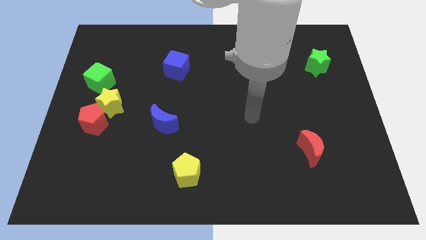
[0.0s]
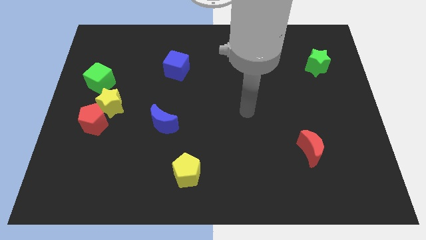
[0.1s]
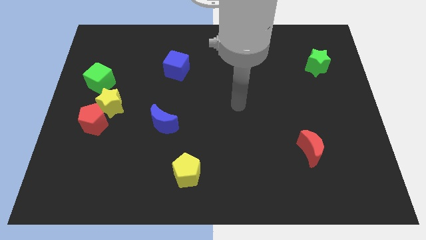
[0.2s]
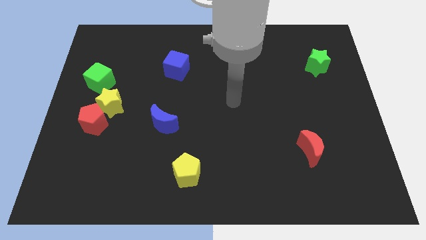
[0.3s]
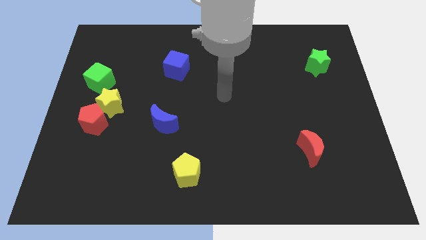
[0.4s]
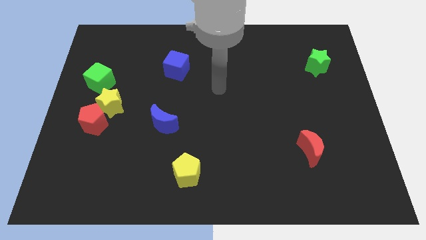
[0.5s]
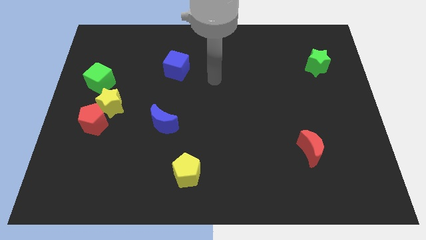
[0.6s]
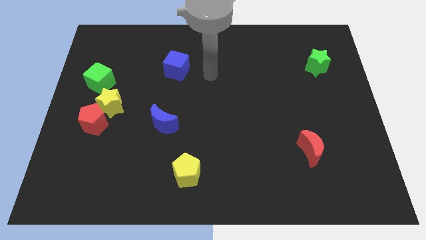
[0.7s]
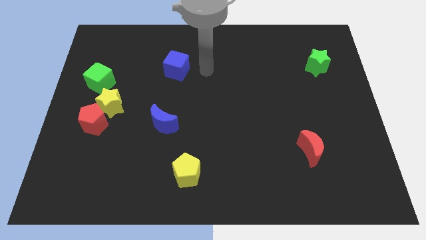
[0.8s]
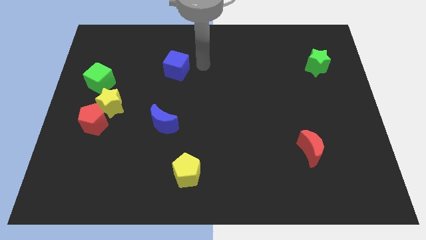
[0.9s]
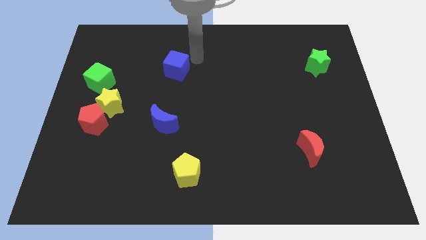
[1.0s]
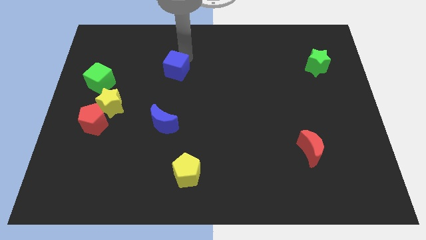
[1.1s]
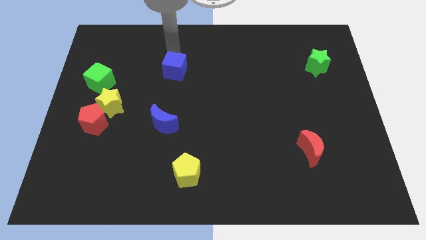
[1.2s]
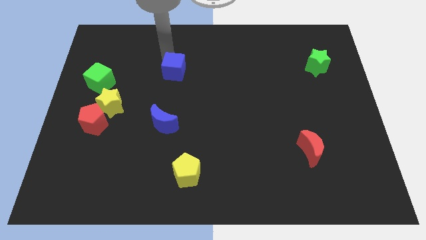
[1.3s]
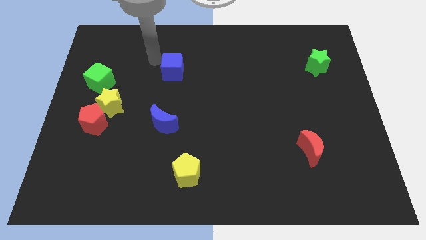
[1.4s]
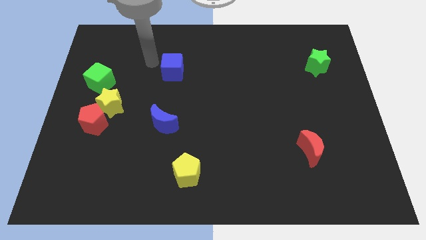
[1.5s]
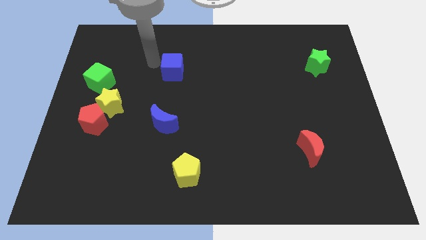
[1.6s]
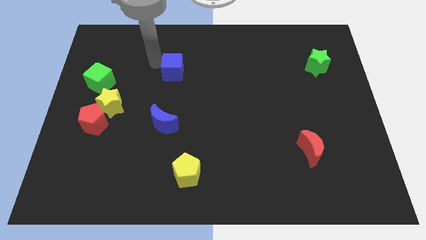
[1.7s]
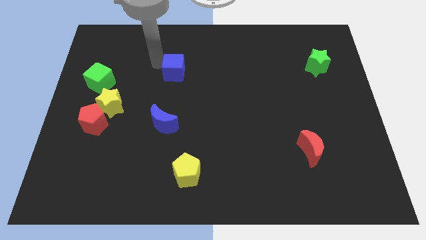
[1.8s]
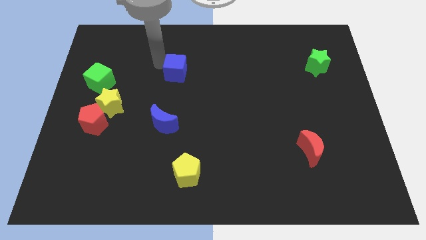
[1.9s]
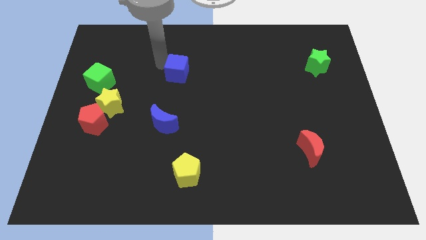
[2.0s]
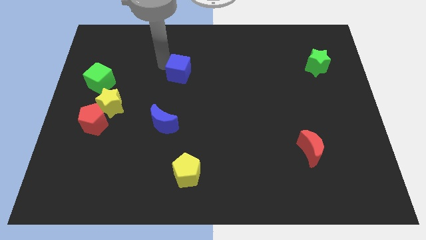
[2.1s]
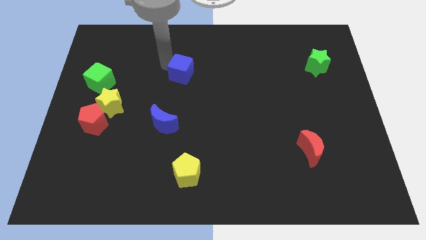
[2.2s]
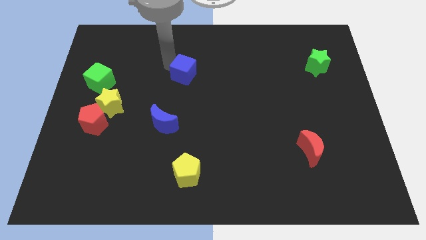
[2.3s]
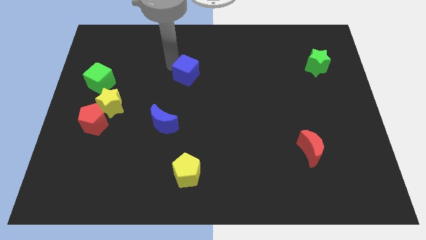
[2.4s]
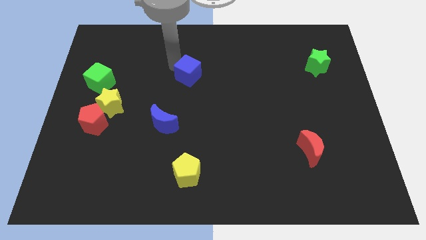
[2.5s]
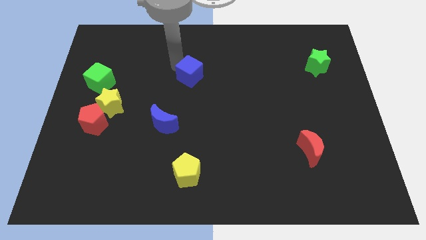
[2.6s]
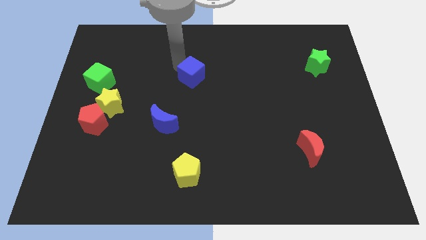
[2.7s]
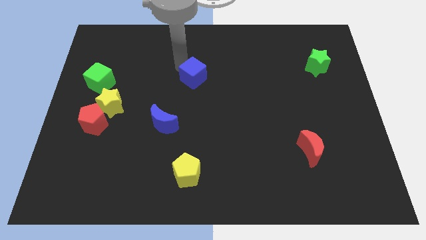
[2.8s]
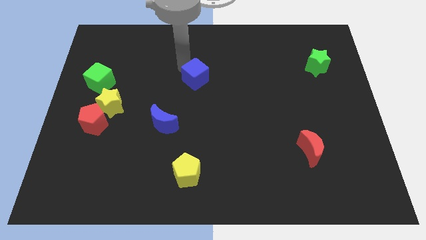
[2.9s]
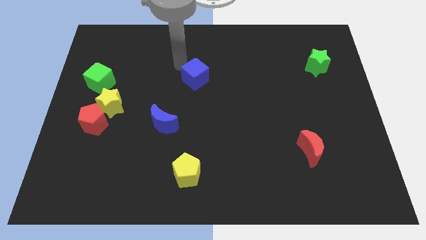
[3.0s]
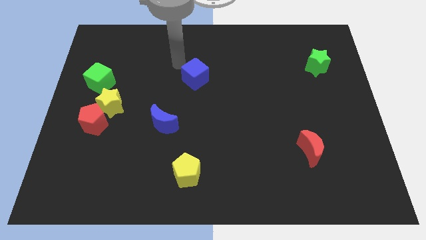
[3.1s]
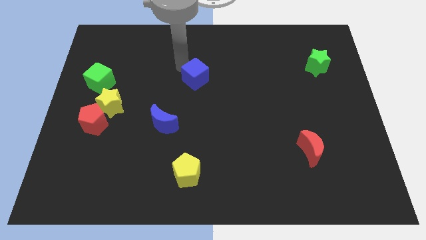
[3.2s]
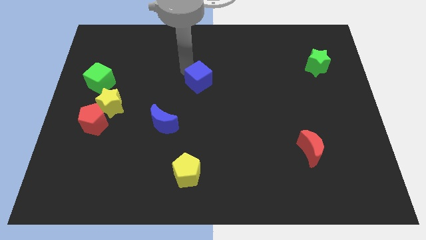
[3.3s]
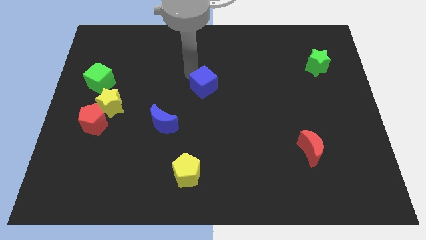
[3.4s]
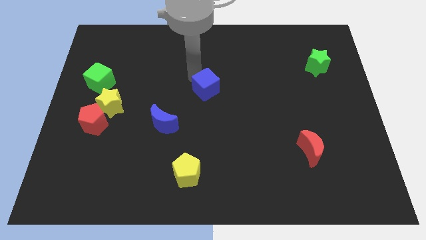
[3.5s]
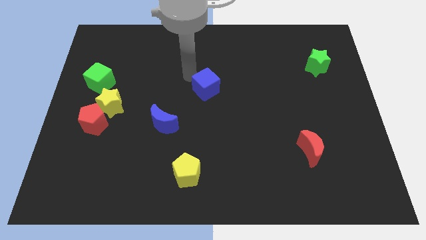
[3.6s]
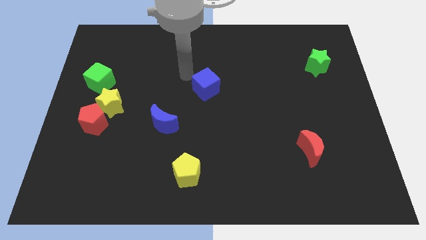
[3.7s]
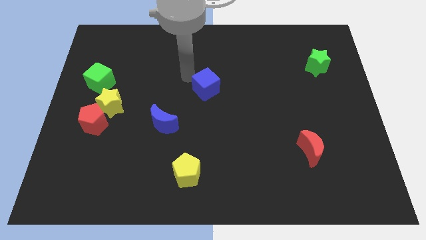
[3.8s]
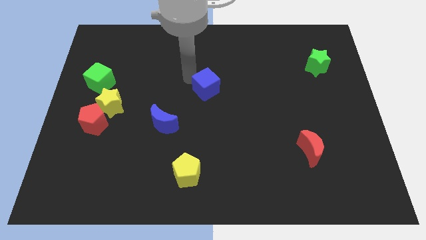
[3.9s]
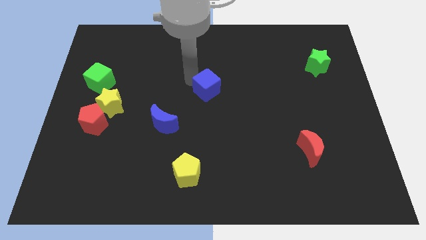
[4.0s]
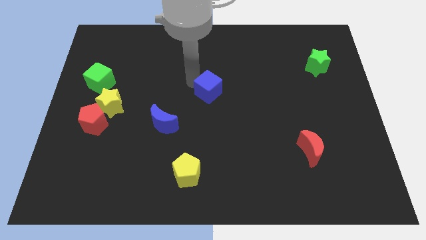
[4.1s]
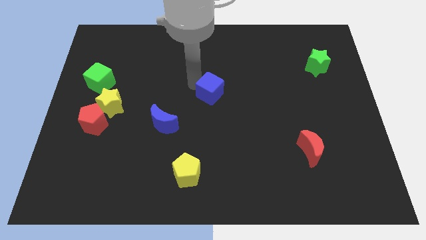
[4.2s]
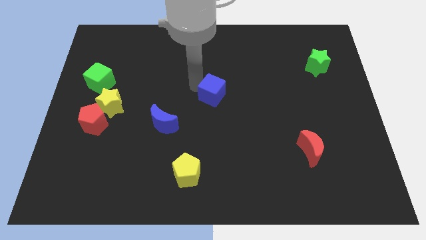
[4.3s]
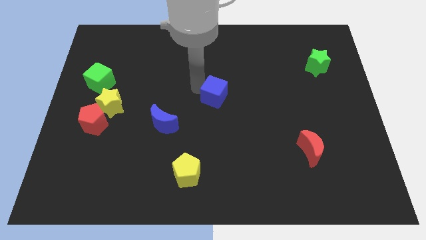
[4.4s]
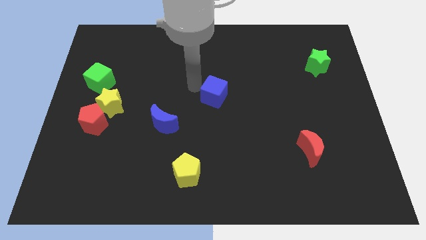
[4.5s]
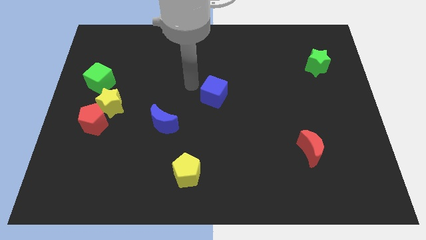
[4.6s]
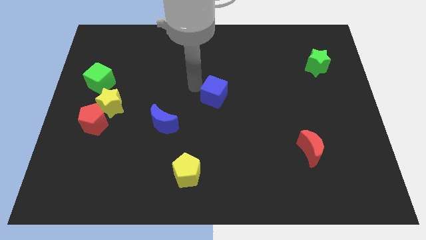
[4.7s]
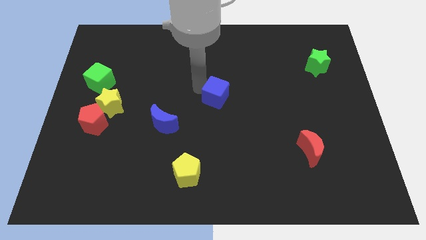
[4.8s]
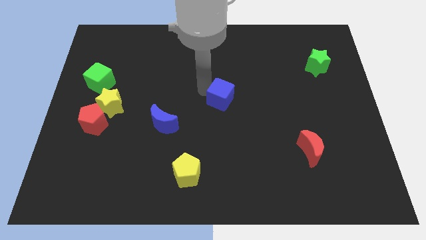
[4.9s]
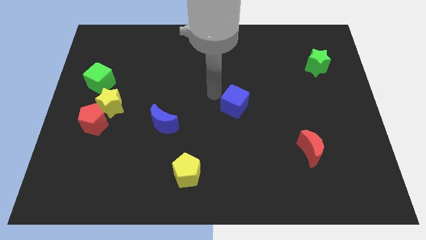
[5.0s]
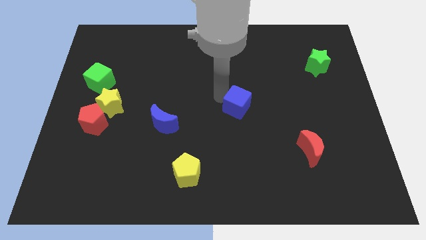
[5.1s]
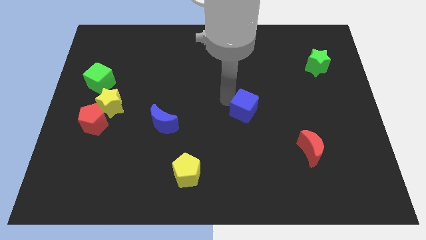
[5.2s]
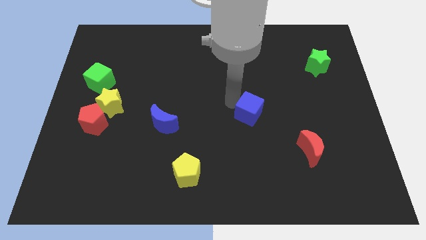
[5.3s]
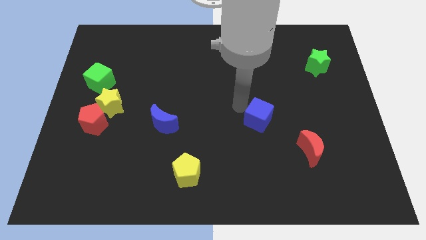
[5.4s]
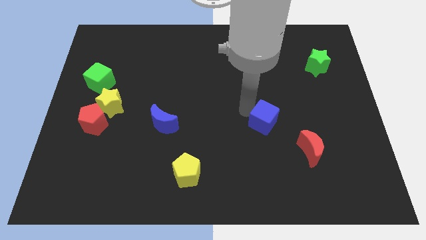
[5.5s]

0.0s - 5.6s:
put the blue cube to the top left of the red moon

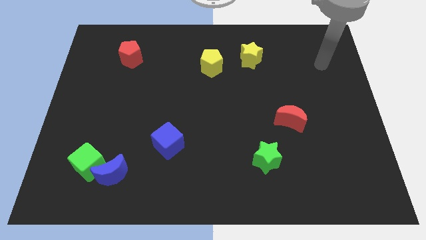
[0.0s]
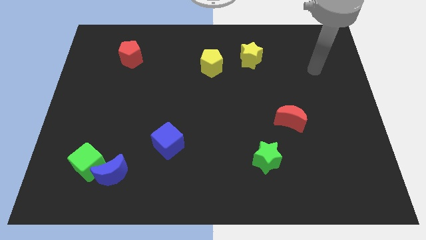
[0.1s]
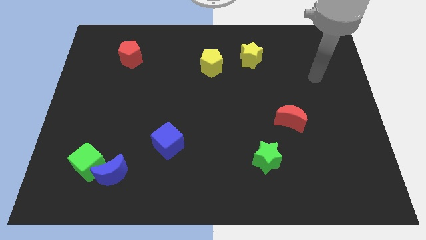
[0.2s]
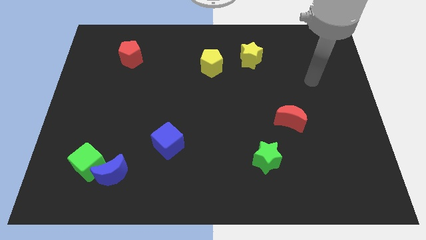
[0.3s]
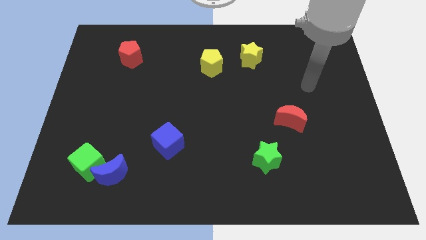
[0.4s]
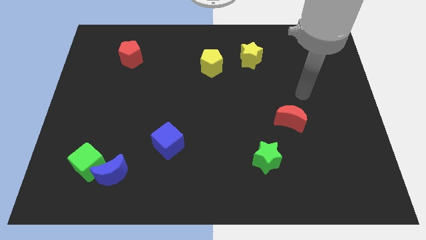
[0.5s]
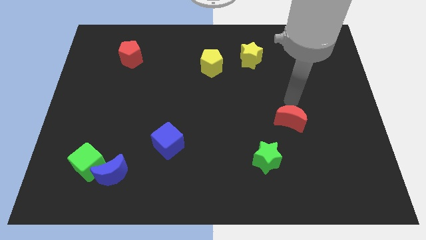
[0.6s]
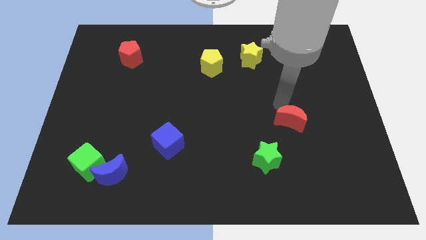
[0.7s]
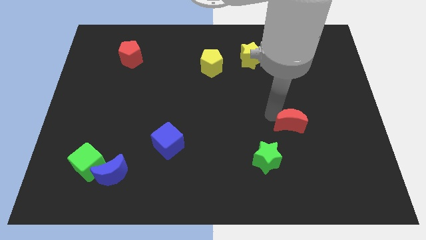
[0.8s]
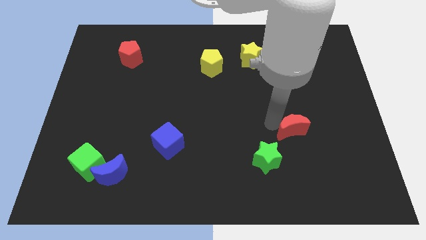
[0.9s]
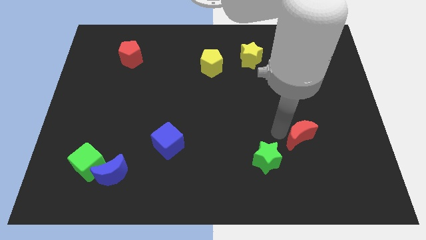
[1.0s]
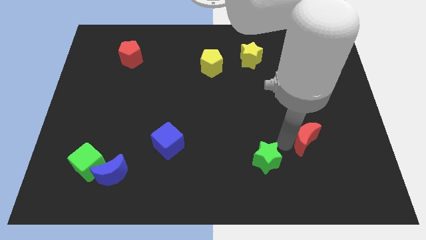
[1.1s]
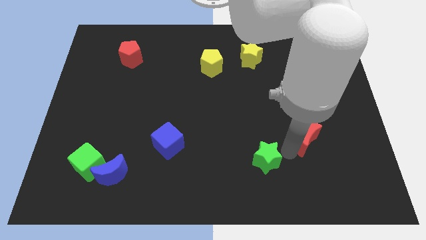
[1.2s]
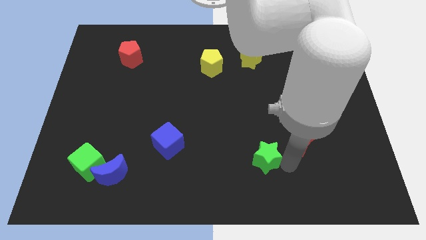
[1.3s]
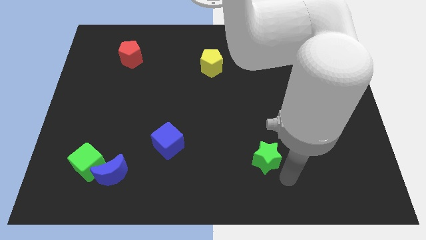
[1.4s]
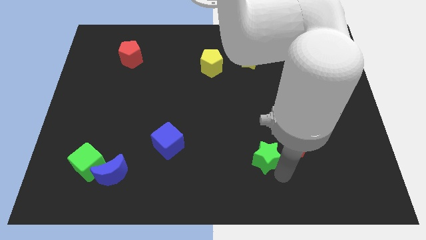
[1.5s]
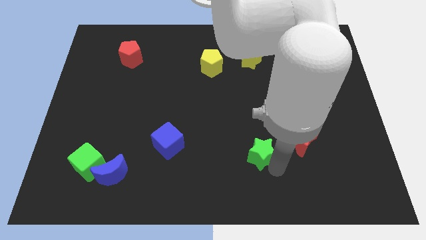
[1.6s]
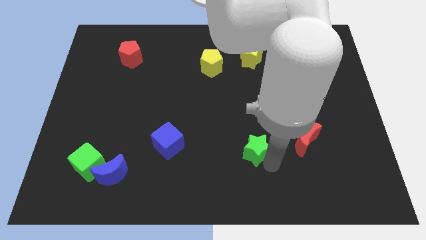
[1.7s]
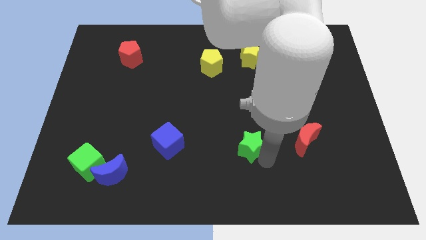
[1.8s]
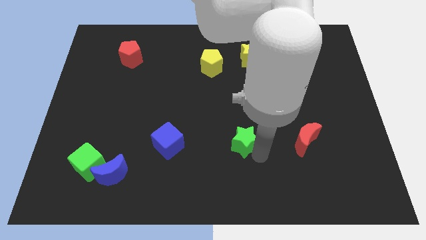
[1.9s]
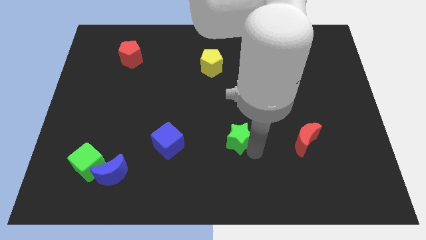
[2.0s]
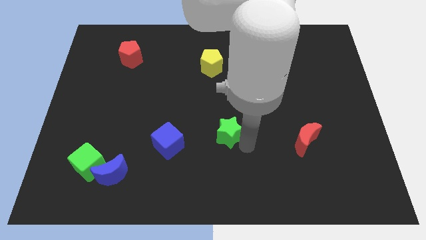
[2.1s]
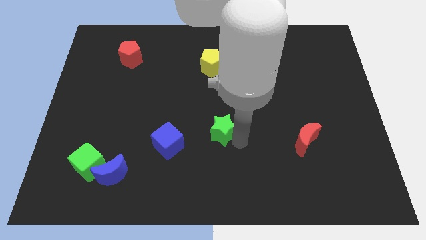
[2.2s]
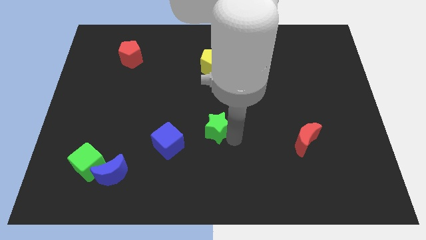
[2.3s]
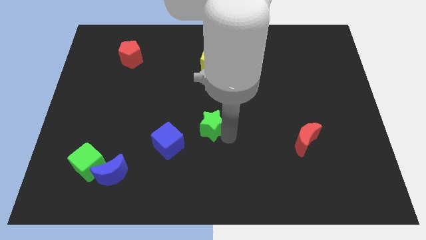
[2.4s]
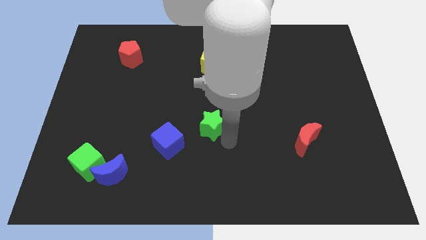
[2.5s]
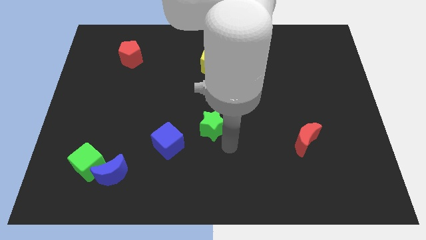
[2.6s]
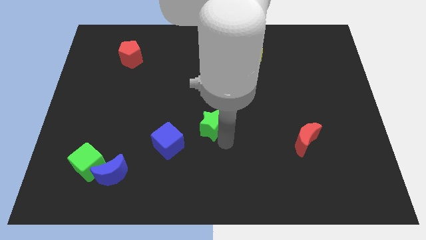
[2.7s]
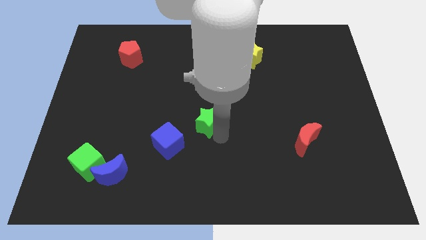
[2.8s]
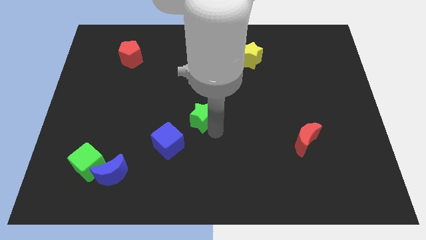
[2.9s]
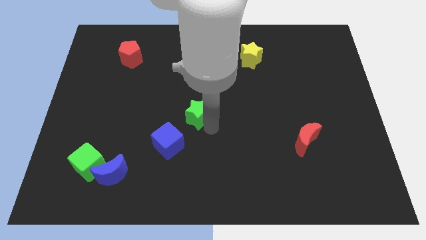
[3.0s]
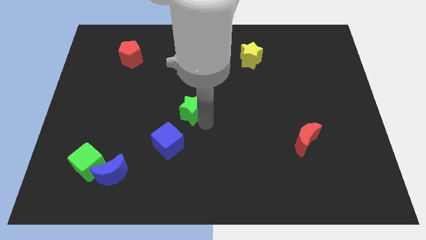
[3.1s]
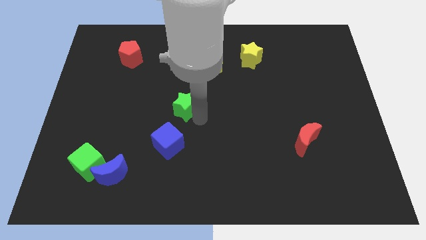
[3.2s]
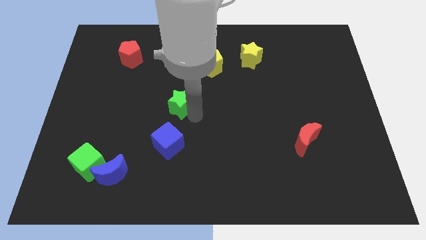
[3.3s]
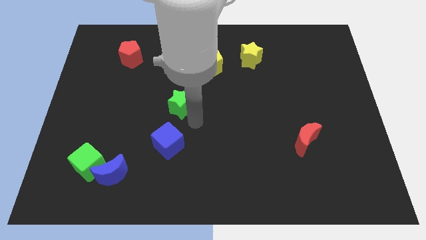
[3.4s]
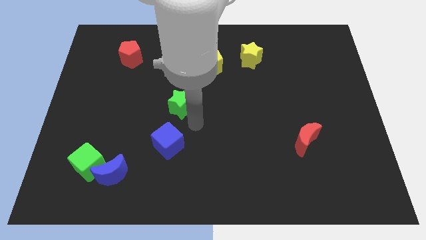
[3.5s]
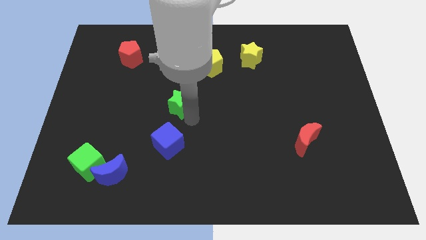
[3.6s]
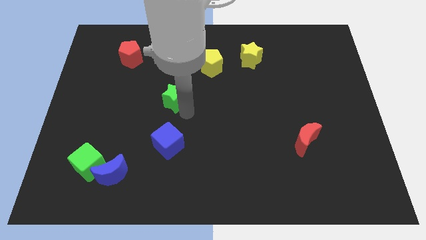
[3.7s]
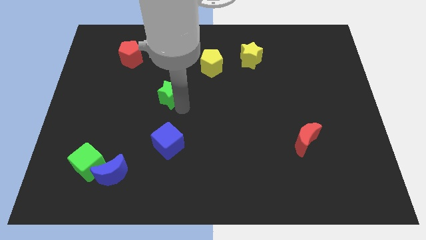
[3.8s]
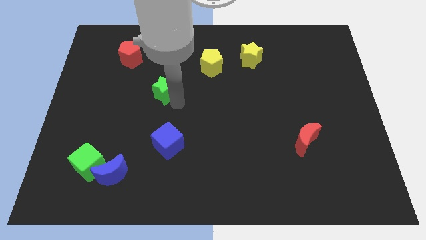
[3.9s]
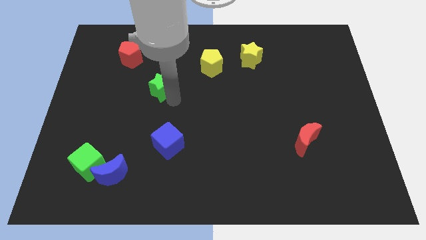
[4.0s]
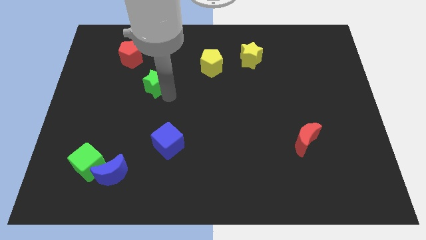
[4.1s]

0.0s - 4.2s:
move the green star to the bottom right of the red pentagon
